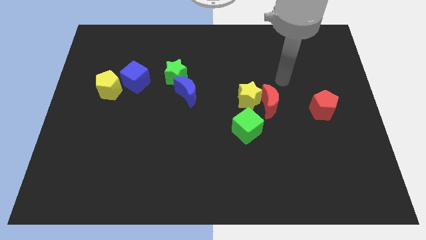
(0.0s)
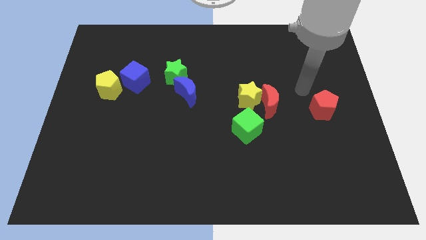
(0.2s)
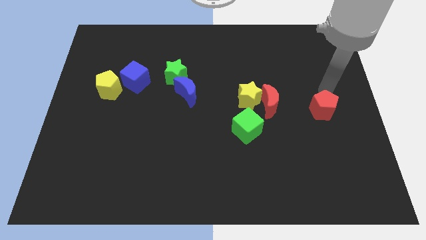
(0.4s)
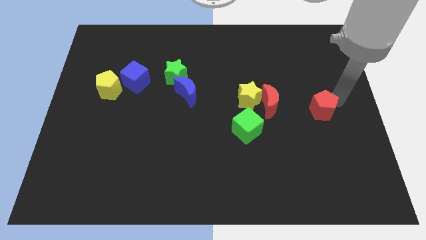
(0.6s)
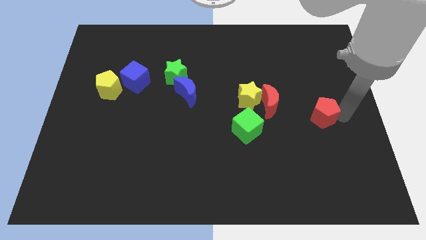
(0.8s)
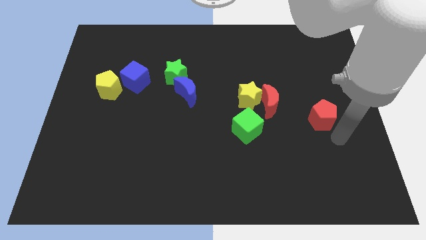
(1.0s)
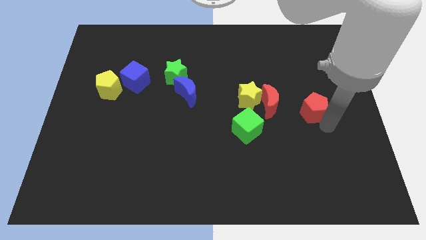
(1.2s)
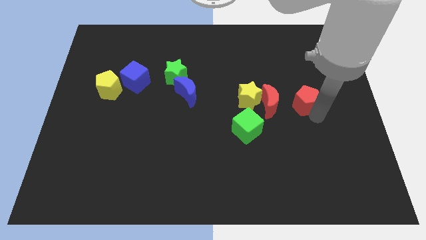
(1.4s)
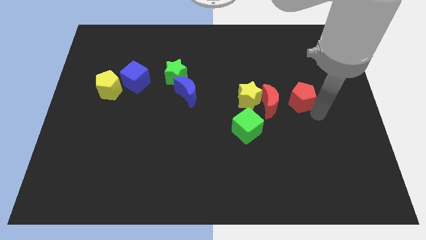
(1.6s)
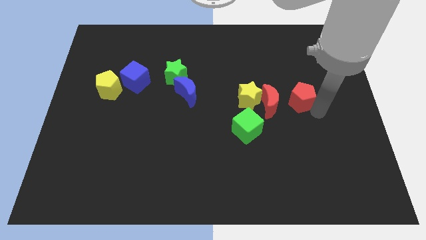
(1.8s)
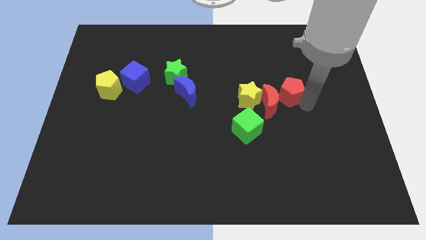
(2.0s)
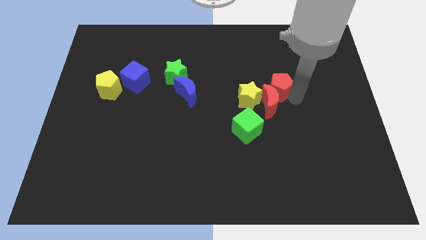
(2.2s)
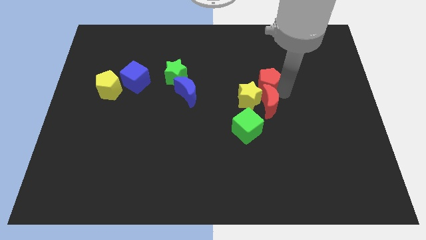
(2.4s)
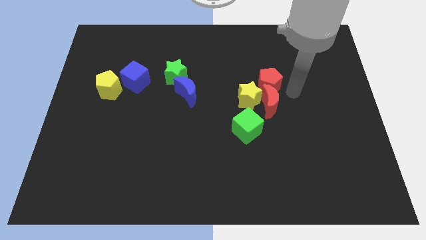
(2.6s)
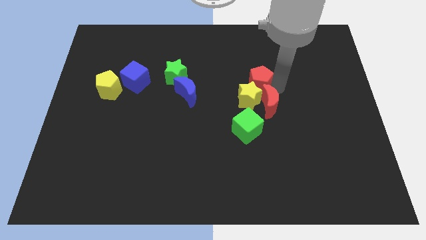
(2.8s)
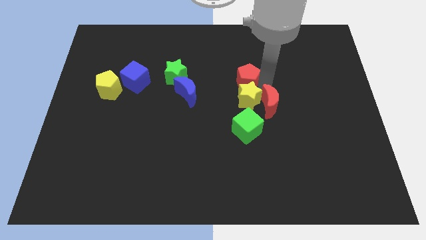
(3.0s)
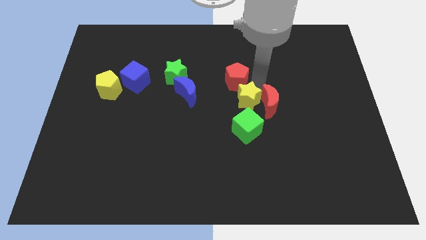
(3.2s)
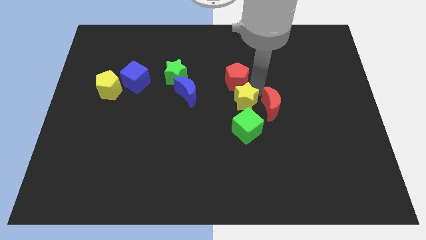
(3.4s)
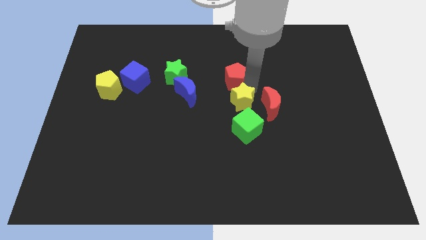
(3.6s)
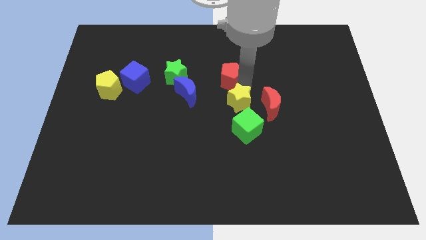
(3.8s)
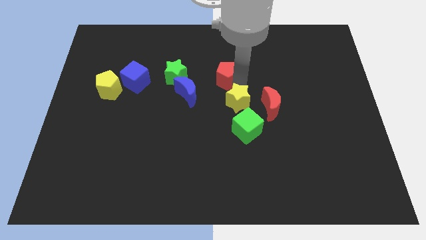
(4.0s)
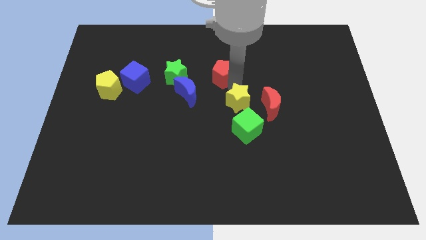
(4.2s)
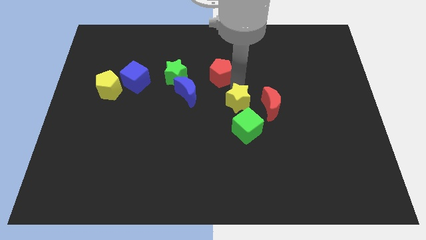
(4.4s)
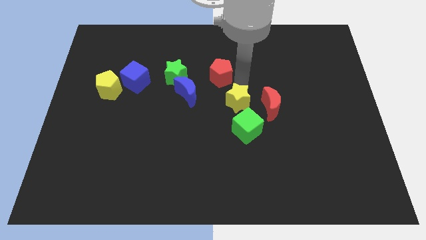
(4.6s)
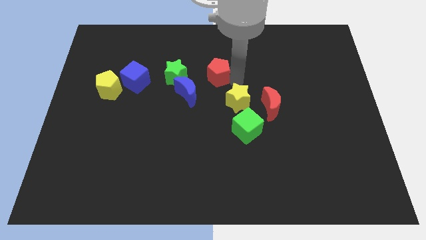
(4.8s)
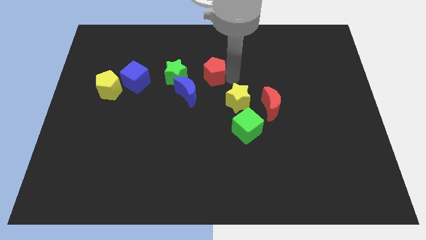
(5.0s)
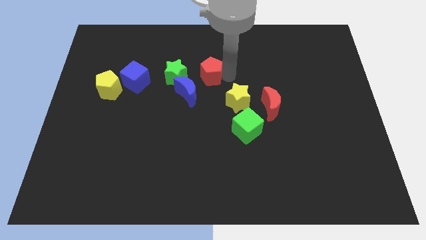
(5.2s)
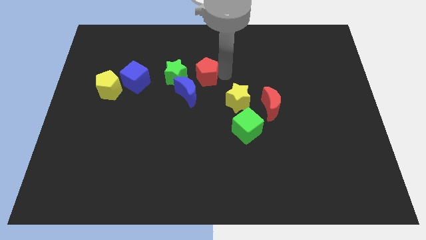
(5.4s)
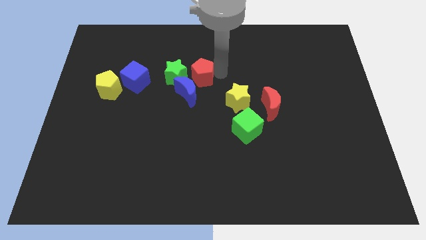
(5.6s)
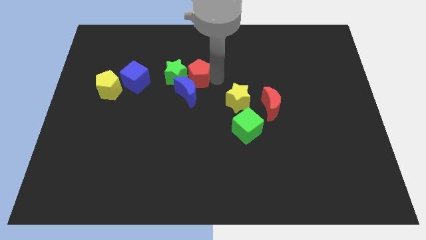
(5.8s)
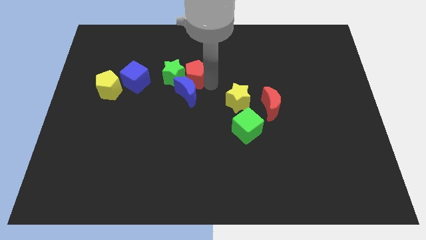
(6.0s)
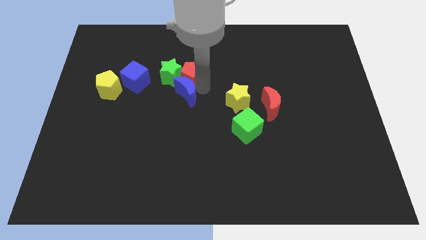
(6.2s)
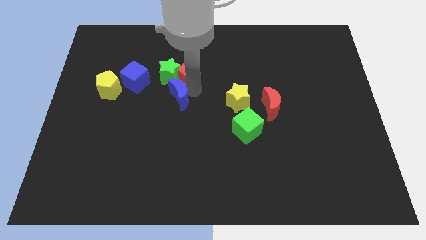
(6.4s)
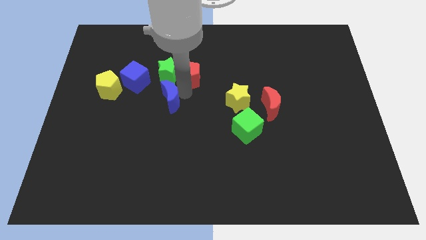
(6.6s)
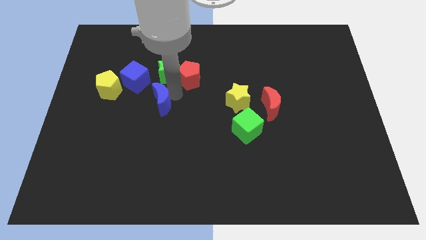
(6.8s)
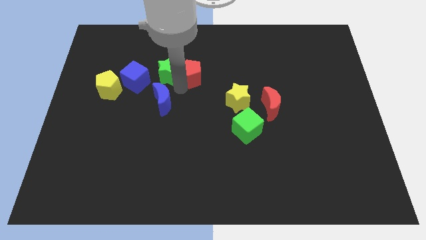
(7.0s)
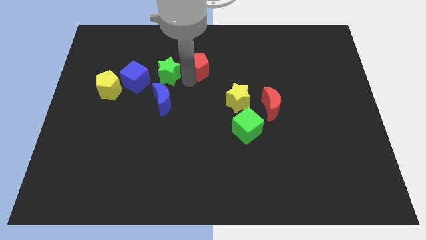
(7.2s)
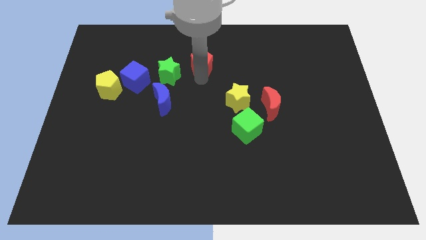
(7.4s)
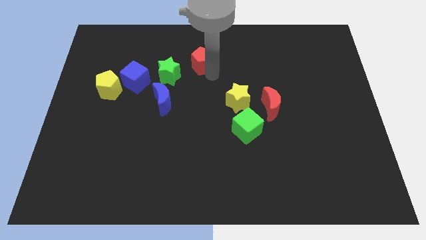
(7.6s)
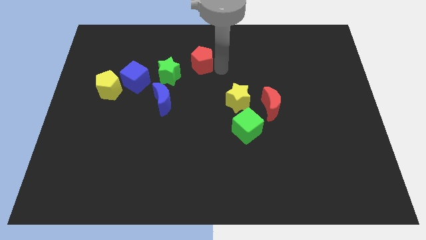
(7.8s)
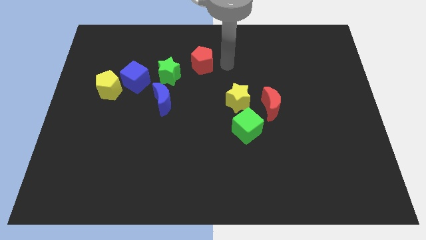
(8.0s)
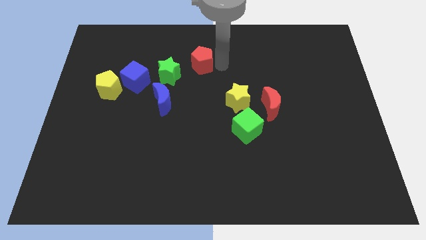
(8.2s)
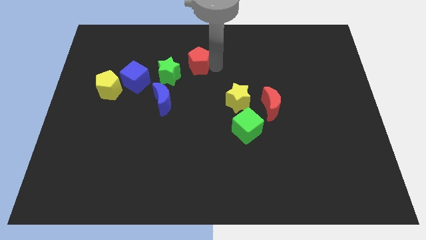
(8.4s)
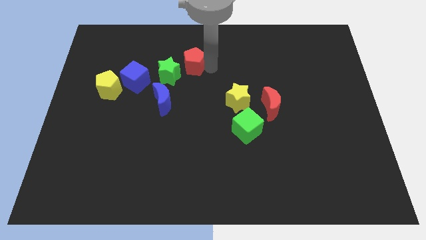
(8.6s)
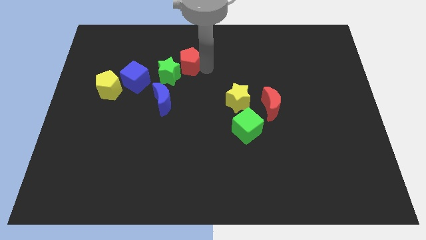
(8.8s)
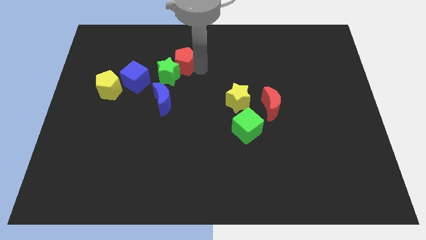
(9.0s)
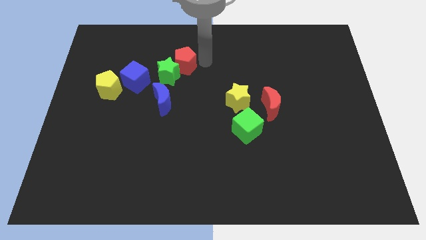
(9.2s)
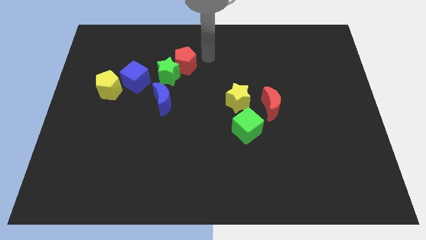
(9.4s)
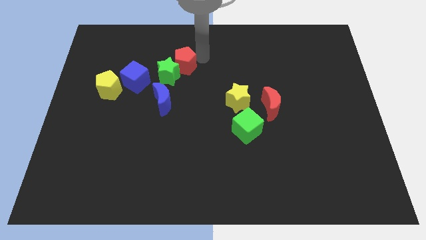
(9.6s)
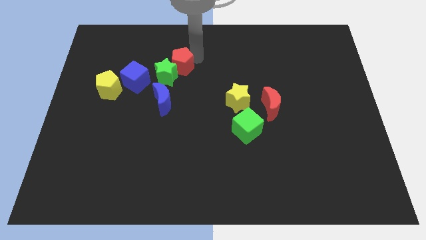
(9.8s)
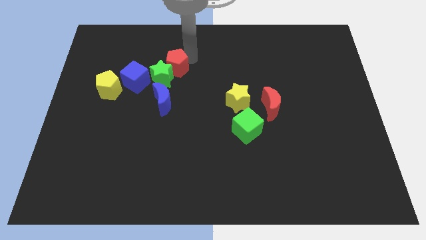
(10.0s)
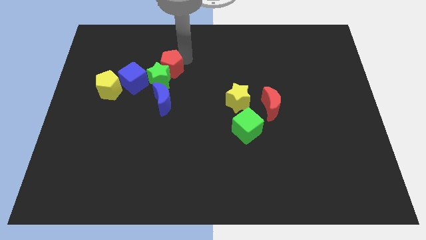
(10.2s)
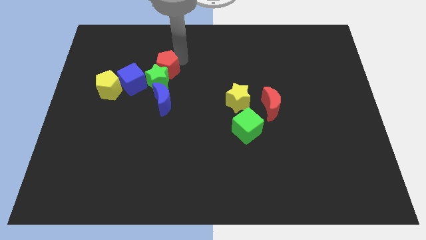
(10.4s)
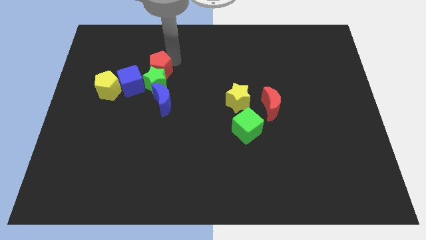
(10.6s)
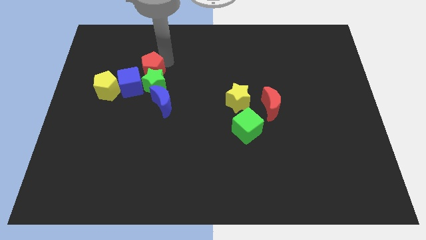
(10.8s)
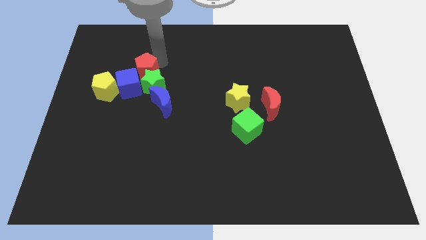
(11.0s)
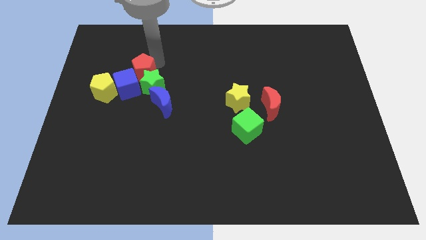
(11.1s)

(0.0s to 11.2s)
move the red pentagon next to the blue cube
